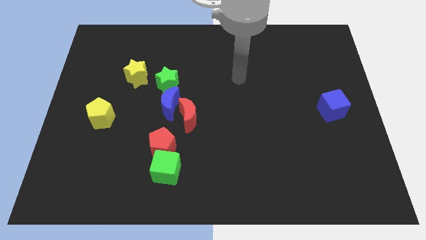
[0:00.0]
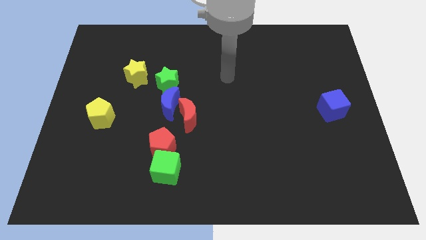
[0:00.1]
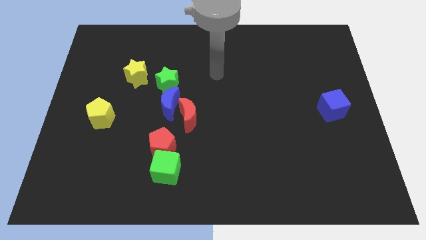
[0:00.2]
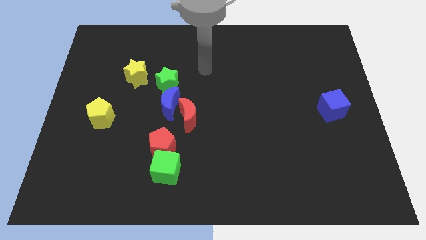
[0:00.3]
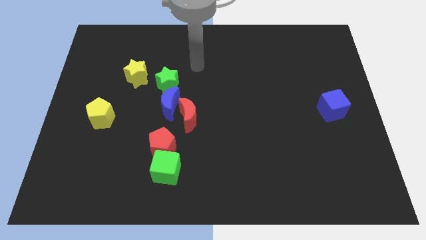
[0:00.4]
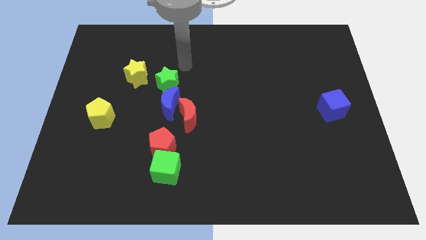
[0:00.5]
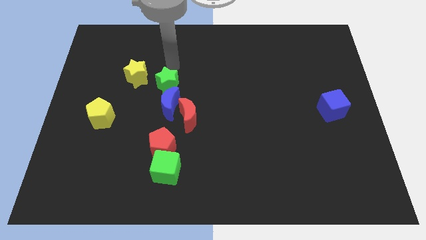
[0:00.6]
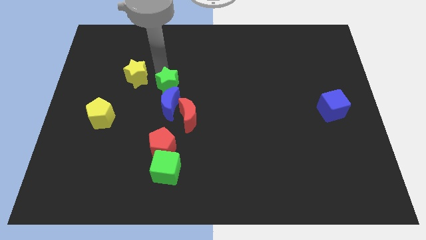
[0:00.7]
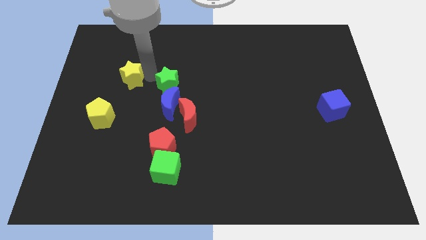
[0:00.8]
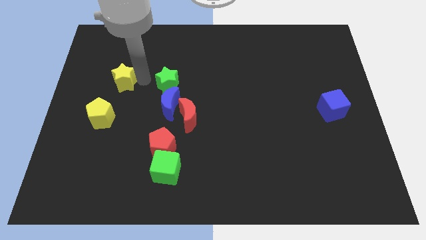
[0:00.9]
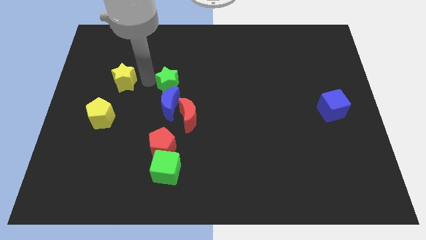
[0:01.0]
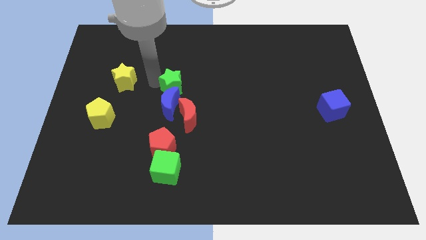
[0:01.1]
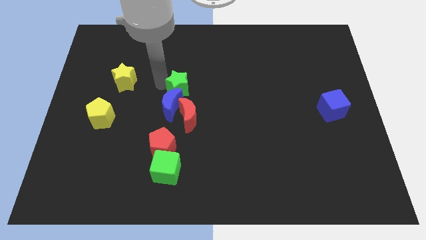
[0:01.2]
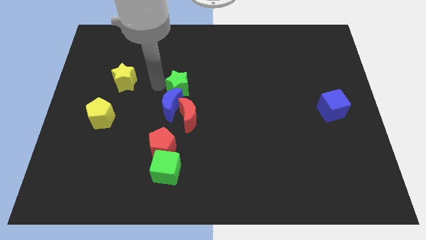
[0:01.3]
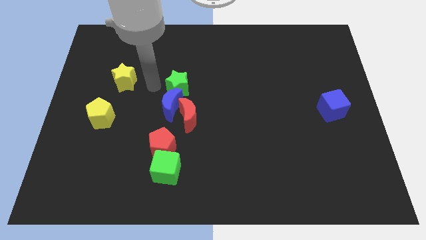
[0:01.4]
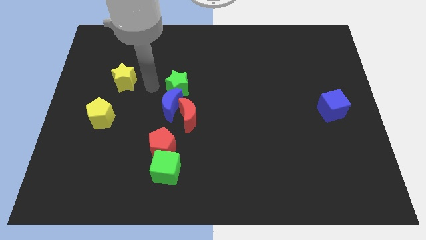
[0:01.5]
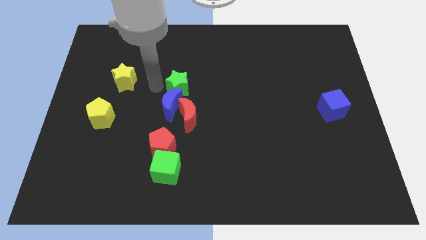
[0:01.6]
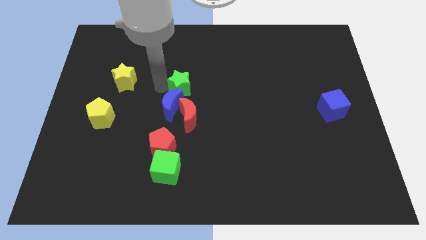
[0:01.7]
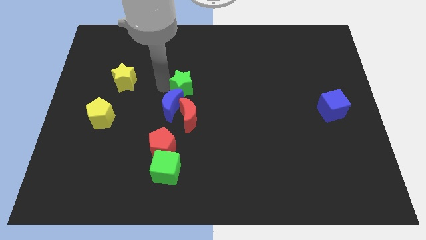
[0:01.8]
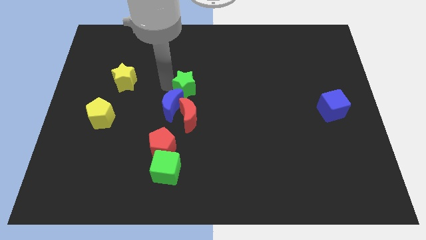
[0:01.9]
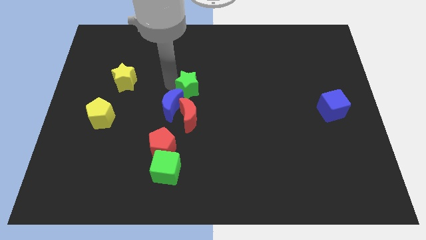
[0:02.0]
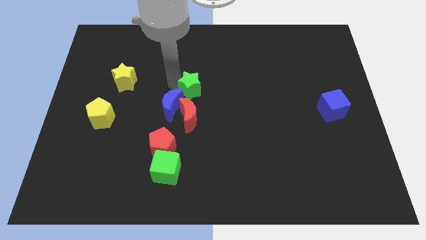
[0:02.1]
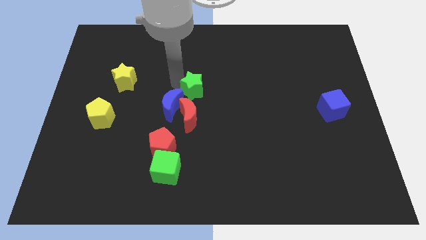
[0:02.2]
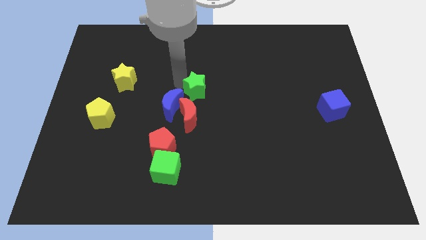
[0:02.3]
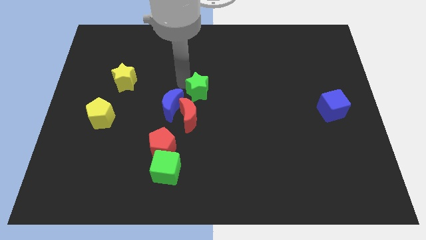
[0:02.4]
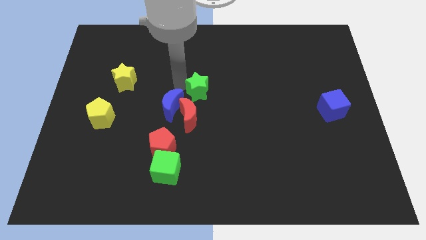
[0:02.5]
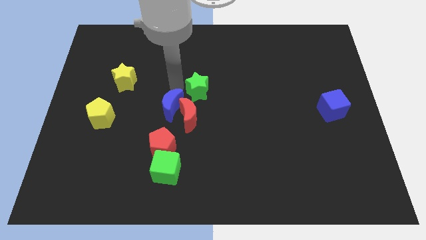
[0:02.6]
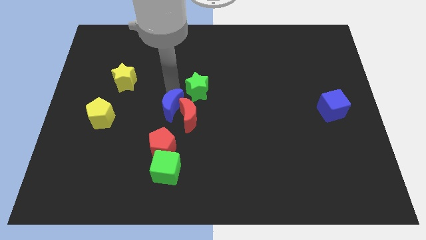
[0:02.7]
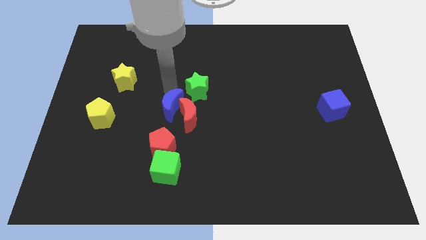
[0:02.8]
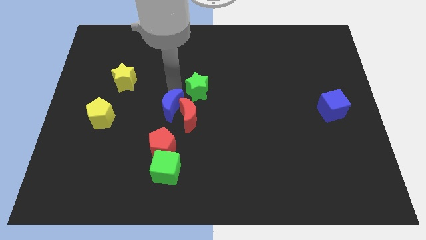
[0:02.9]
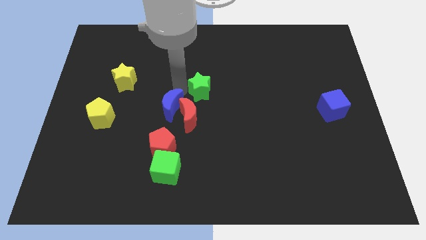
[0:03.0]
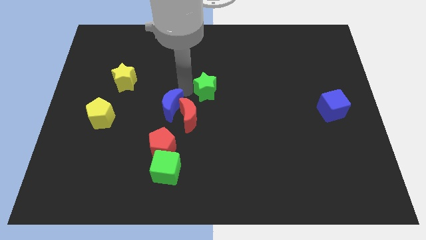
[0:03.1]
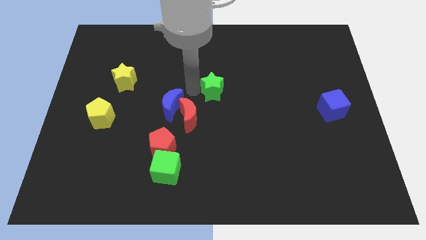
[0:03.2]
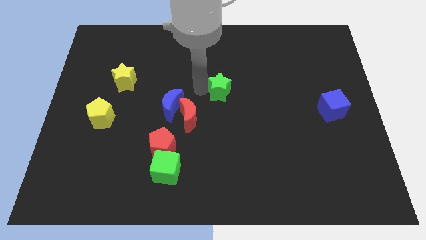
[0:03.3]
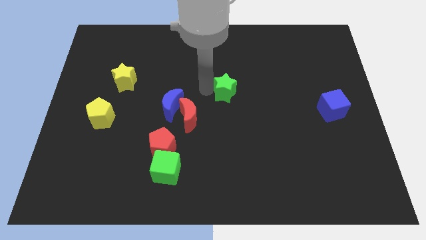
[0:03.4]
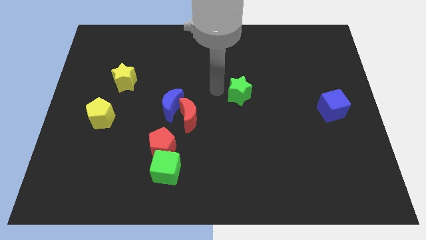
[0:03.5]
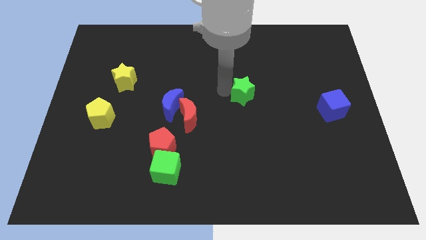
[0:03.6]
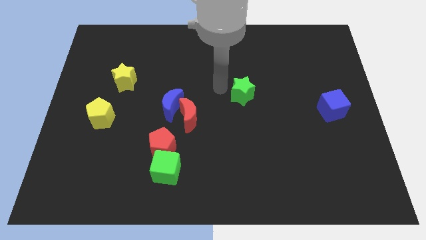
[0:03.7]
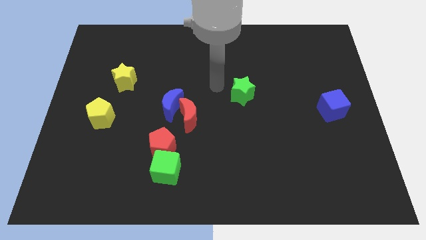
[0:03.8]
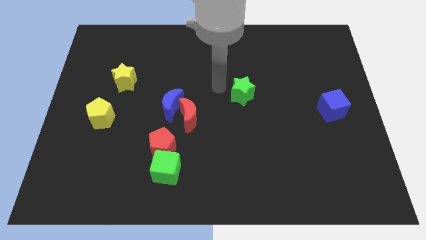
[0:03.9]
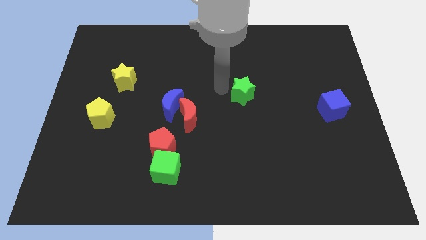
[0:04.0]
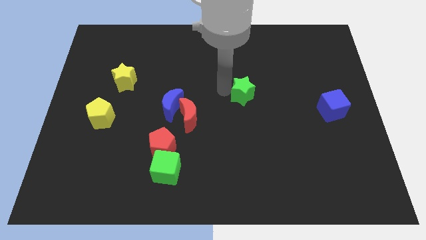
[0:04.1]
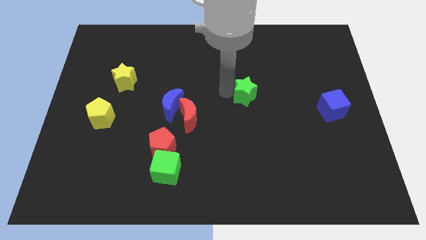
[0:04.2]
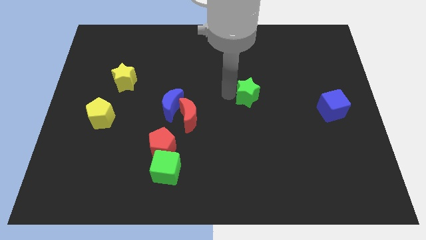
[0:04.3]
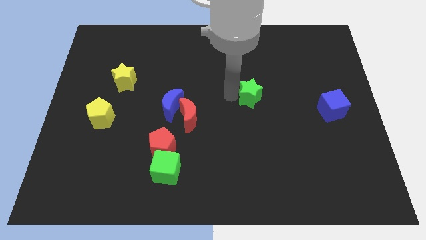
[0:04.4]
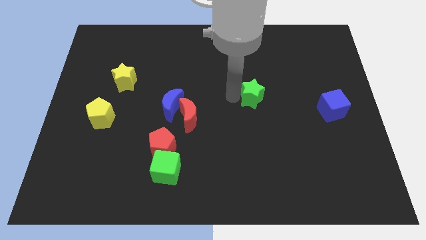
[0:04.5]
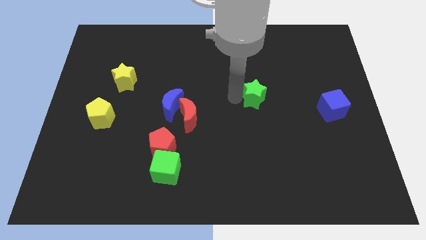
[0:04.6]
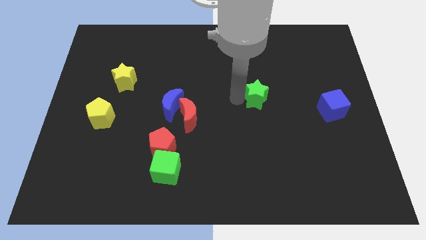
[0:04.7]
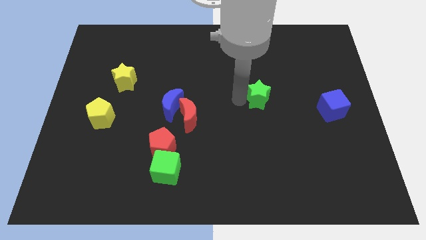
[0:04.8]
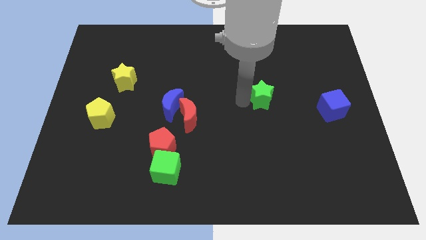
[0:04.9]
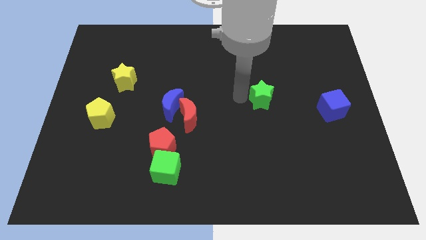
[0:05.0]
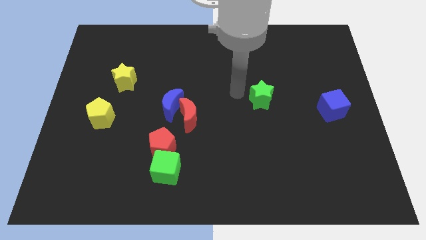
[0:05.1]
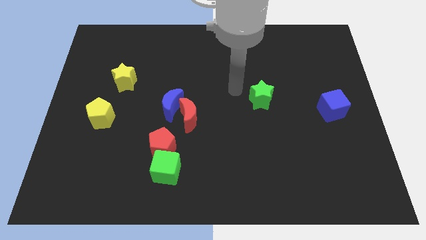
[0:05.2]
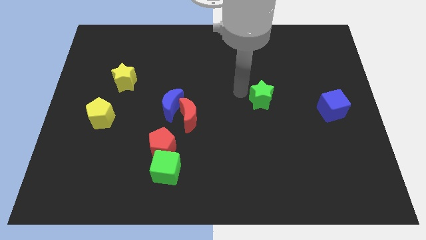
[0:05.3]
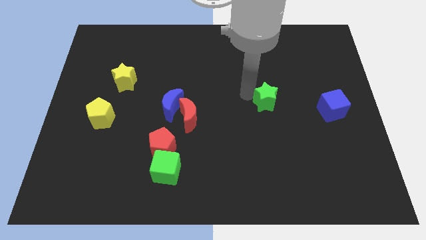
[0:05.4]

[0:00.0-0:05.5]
push the green star to the left of the blue cube

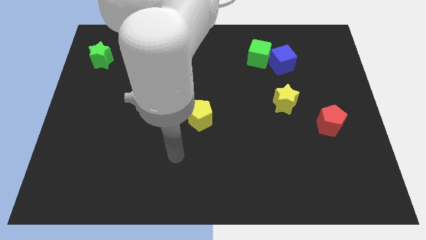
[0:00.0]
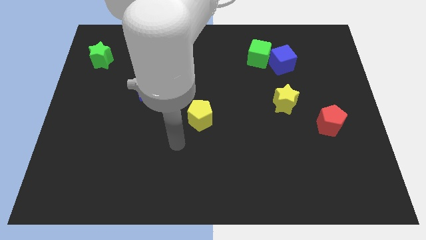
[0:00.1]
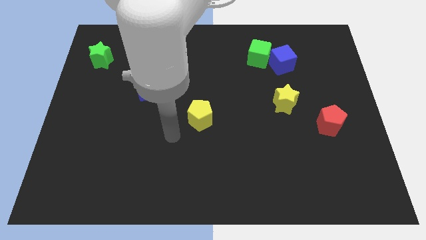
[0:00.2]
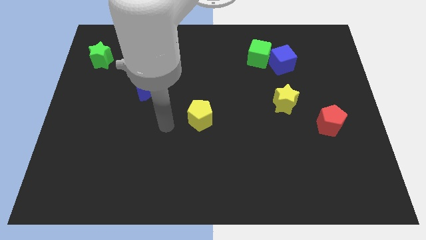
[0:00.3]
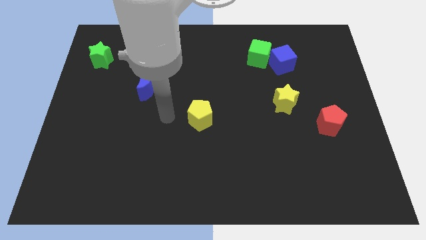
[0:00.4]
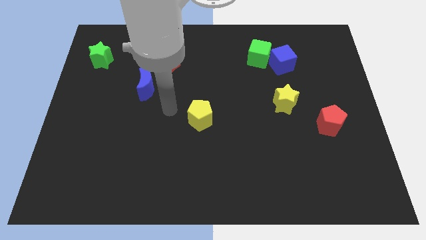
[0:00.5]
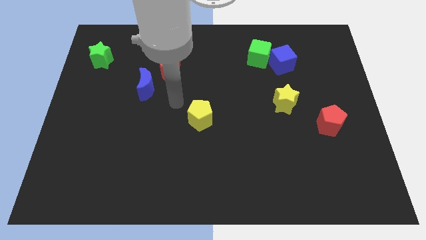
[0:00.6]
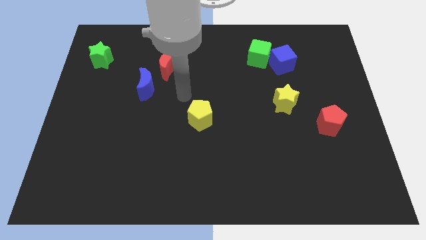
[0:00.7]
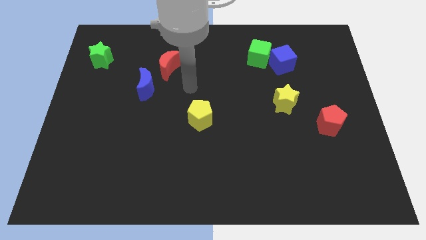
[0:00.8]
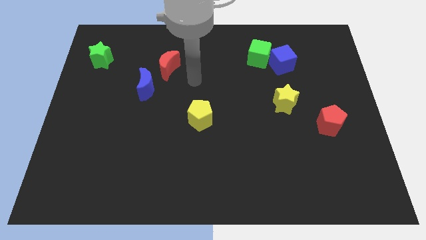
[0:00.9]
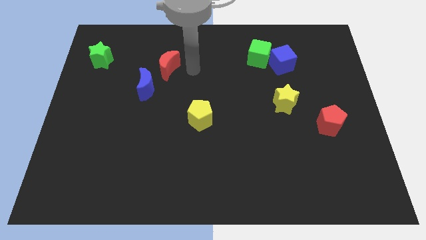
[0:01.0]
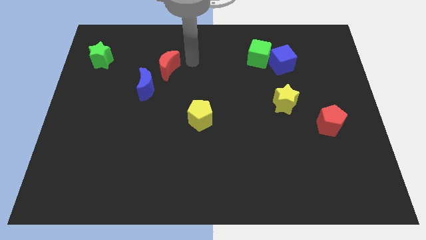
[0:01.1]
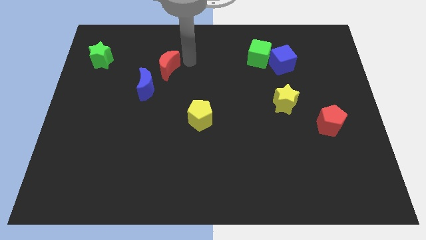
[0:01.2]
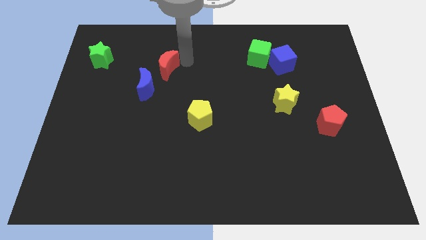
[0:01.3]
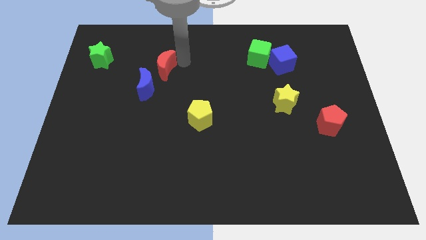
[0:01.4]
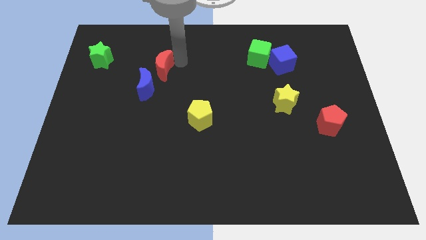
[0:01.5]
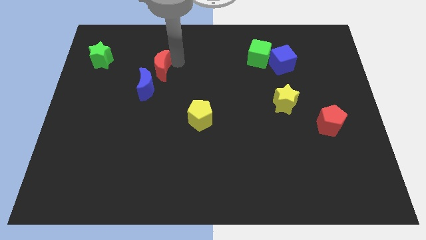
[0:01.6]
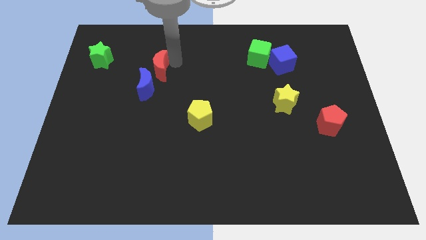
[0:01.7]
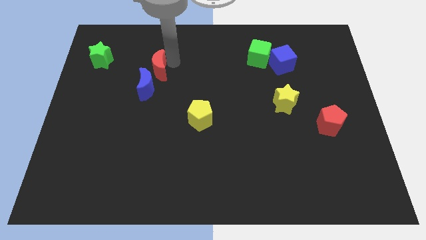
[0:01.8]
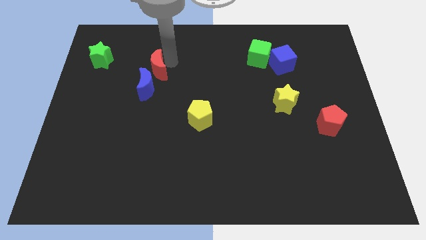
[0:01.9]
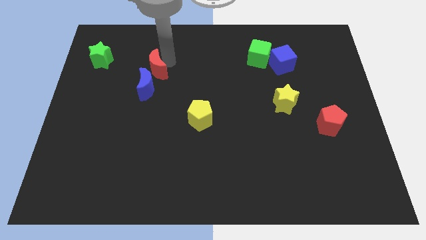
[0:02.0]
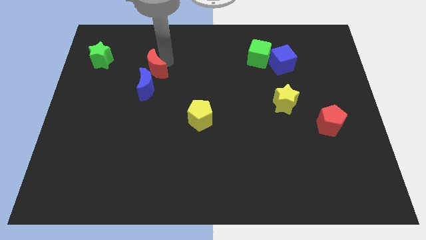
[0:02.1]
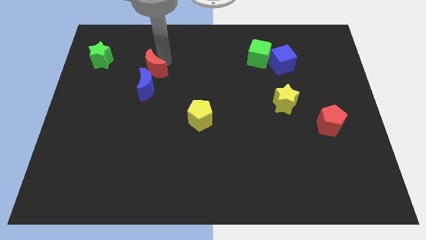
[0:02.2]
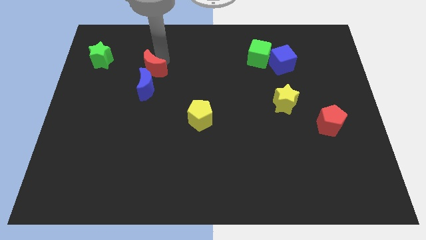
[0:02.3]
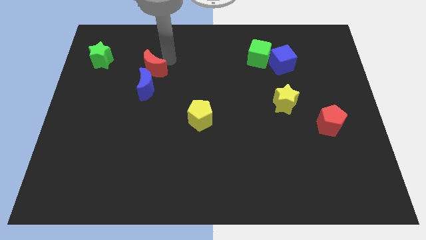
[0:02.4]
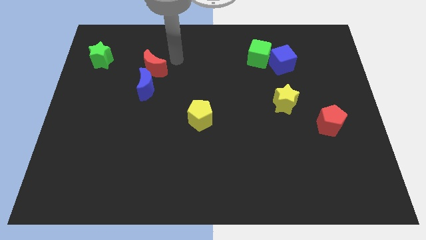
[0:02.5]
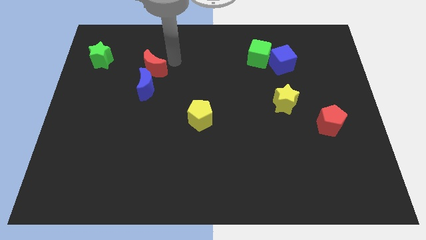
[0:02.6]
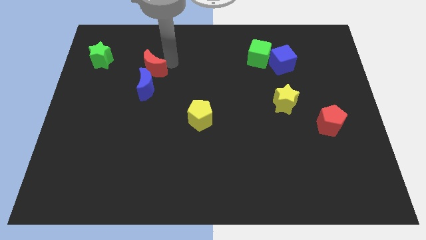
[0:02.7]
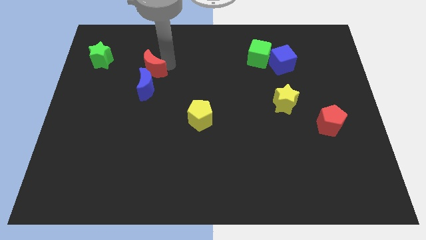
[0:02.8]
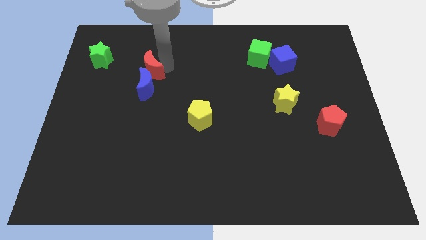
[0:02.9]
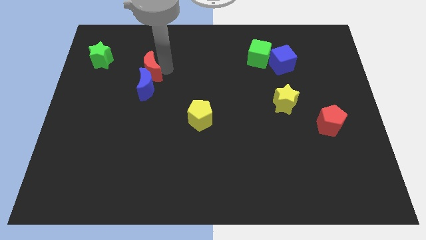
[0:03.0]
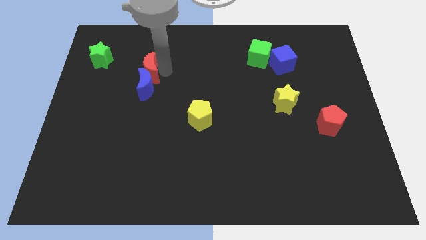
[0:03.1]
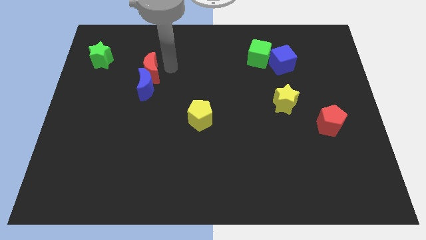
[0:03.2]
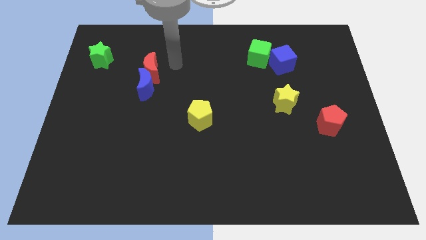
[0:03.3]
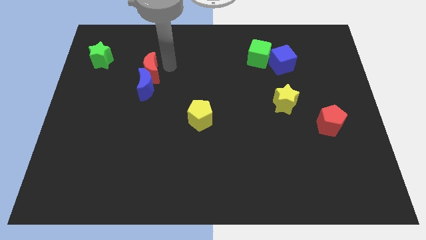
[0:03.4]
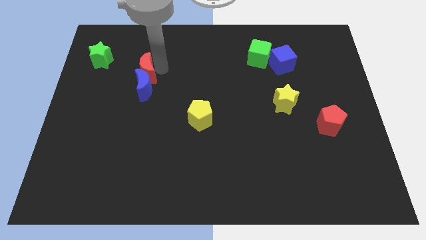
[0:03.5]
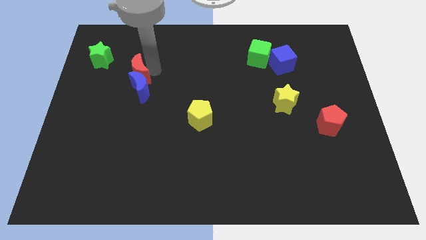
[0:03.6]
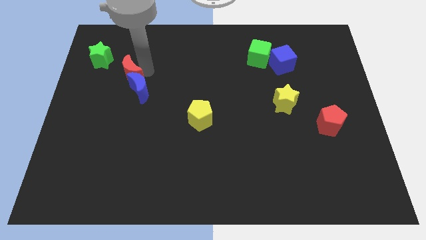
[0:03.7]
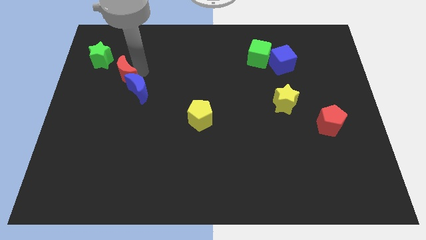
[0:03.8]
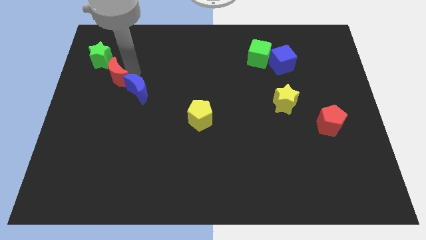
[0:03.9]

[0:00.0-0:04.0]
slide the red moon to the bottom side of the green star
